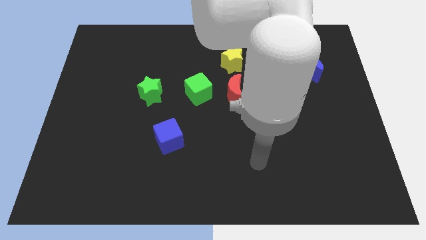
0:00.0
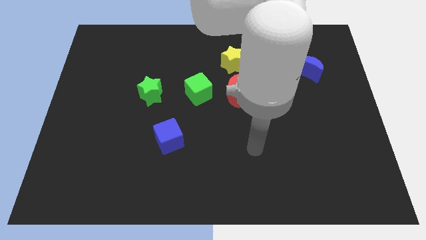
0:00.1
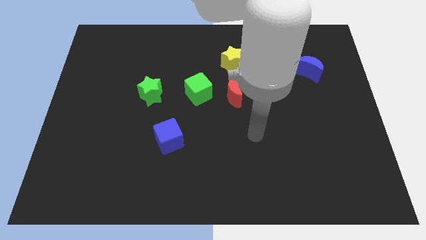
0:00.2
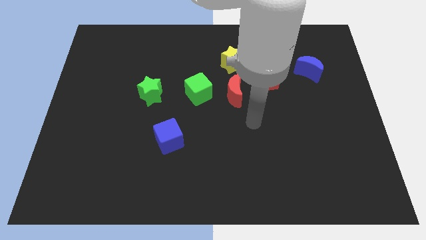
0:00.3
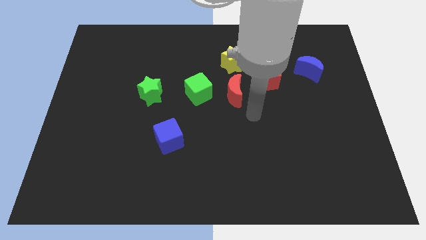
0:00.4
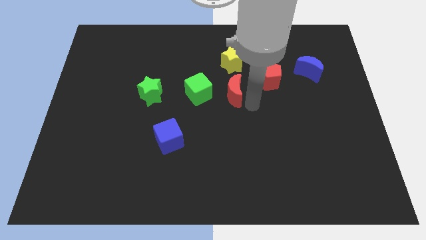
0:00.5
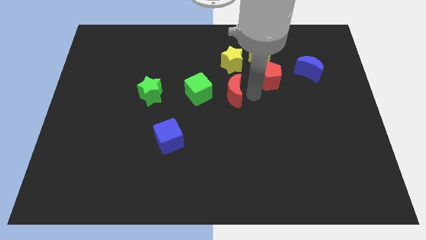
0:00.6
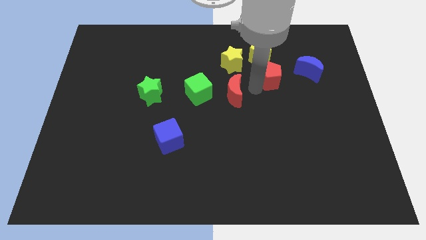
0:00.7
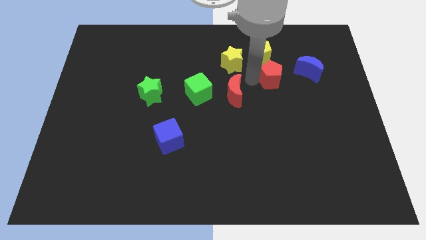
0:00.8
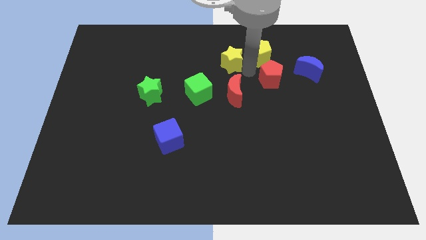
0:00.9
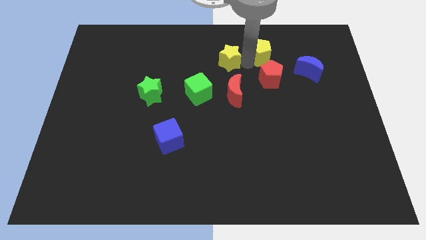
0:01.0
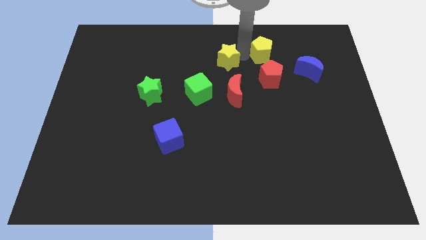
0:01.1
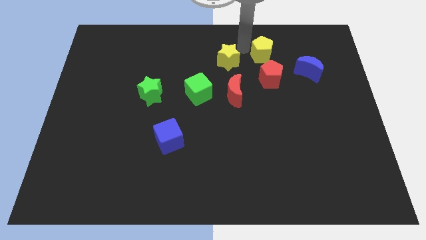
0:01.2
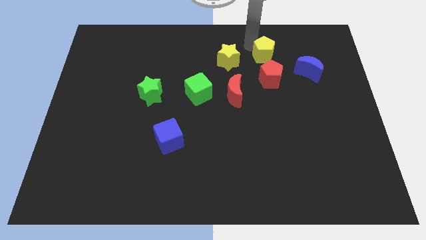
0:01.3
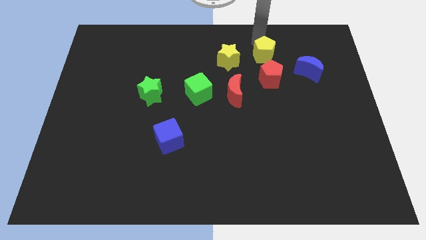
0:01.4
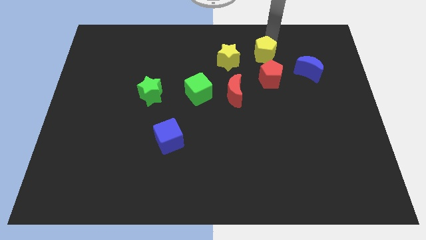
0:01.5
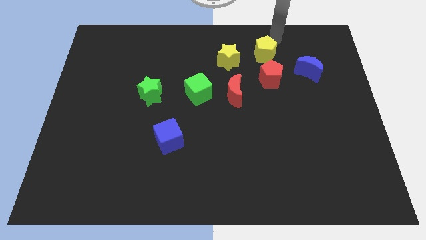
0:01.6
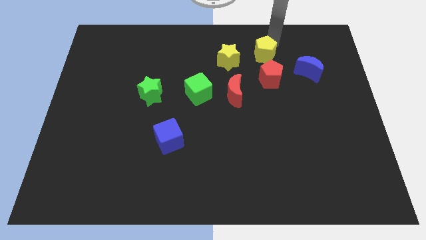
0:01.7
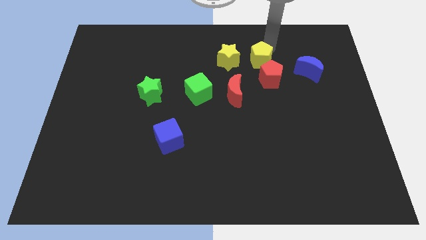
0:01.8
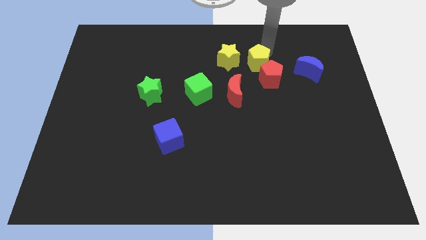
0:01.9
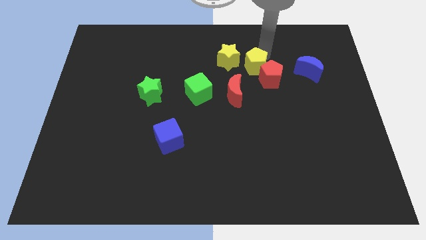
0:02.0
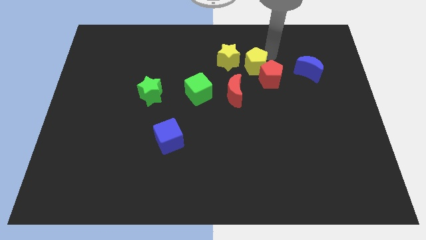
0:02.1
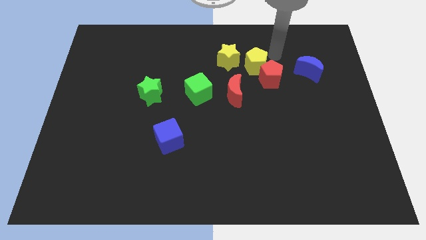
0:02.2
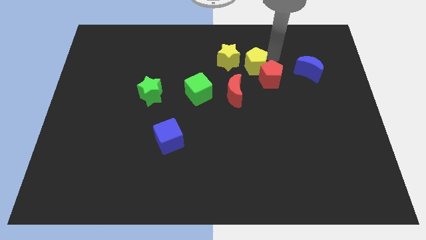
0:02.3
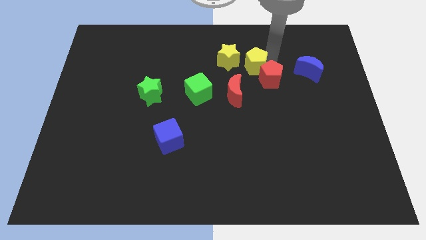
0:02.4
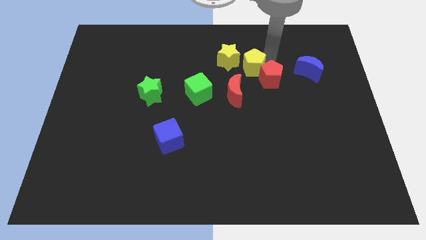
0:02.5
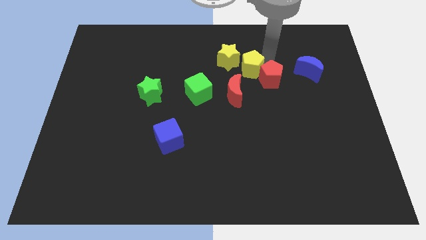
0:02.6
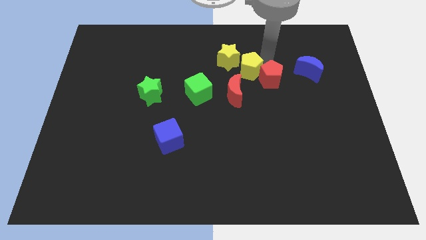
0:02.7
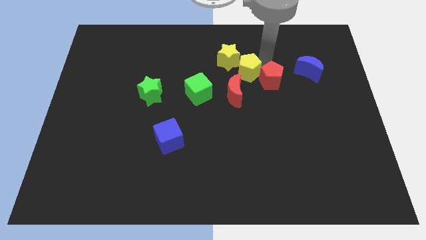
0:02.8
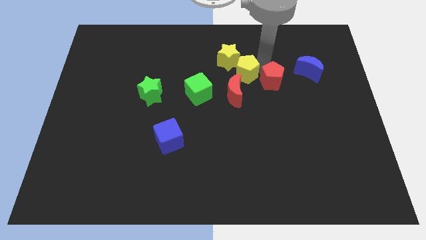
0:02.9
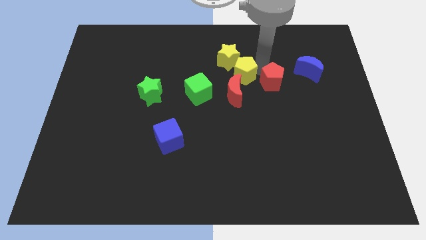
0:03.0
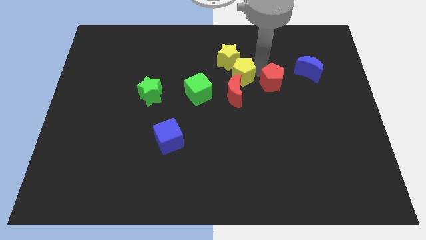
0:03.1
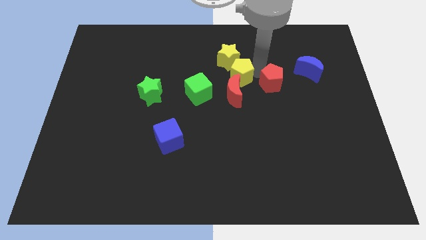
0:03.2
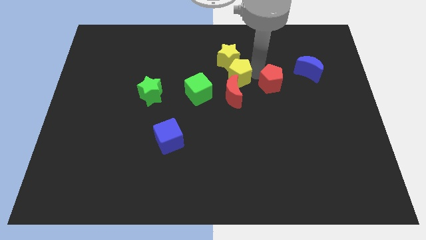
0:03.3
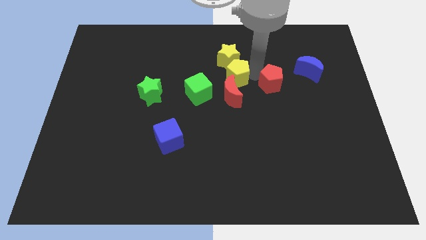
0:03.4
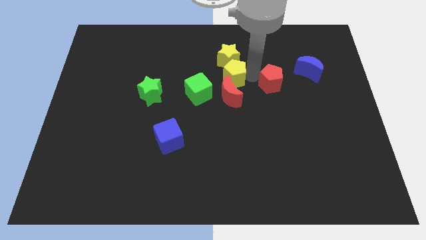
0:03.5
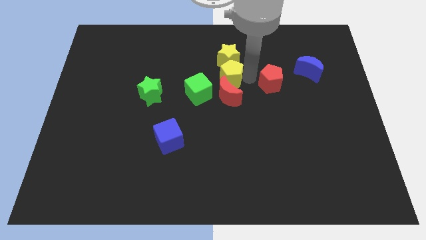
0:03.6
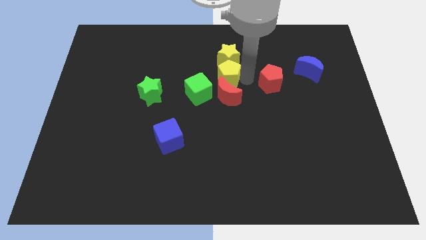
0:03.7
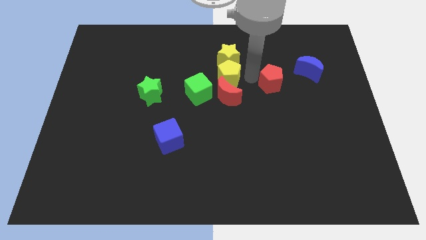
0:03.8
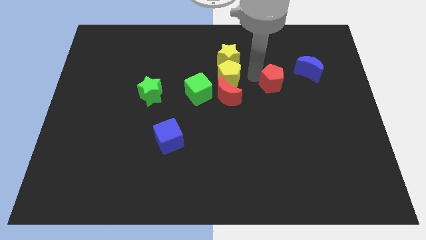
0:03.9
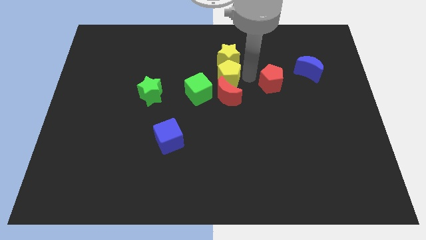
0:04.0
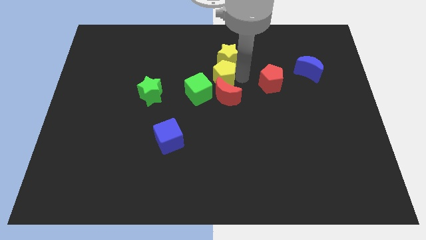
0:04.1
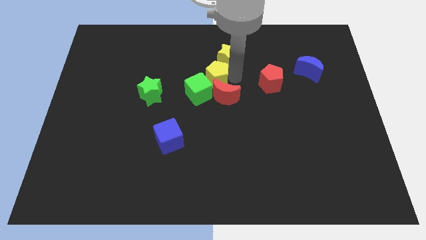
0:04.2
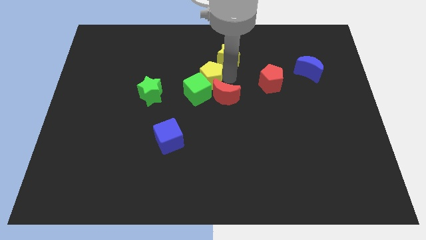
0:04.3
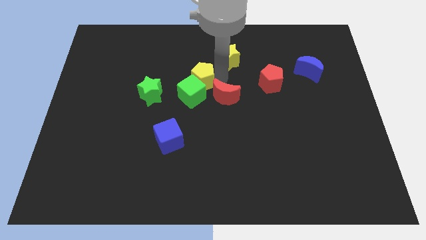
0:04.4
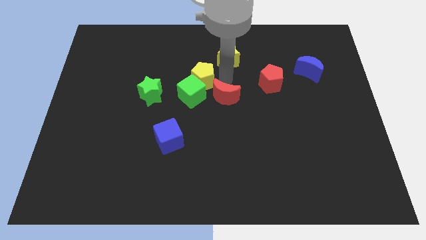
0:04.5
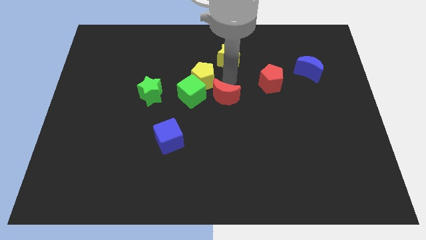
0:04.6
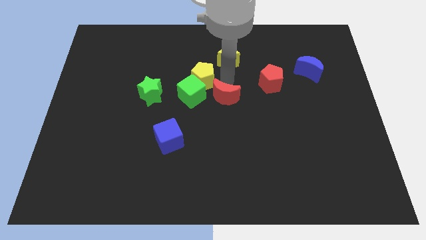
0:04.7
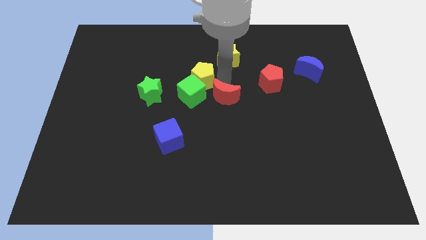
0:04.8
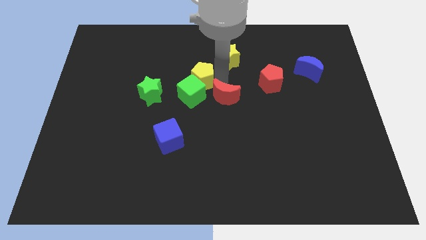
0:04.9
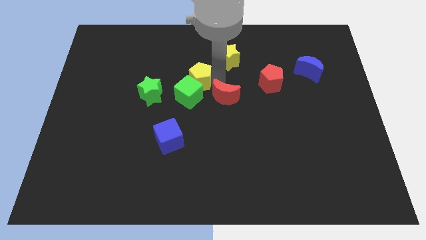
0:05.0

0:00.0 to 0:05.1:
move the yellow pentagon to the left side of the red moon

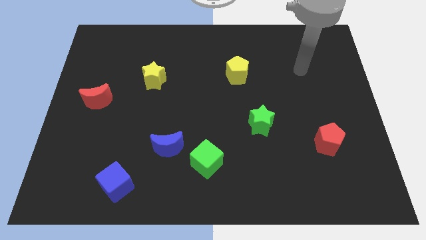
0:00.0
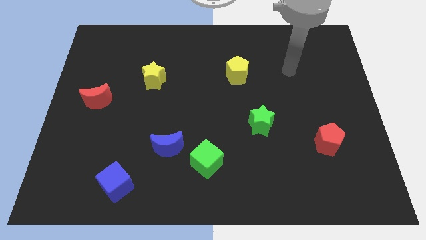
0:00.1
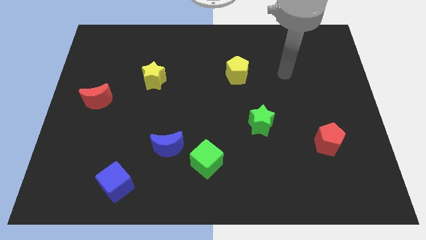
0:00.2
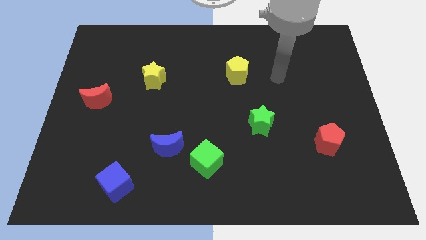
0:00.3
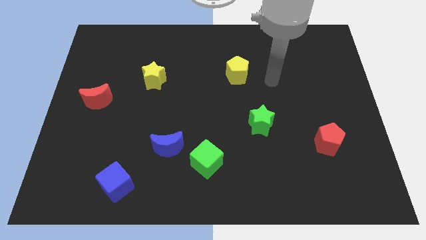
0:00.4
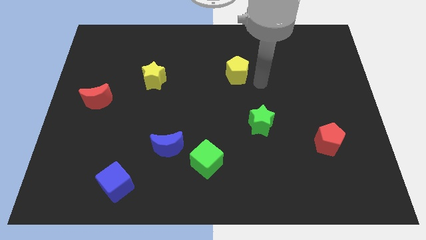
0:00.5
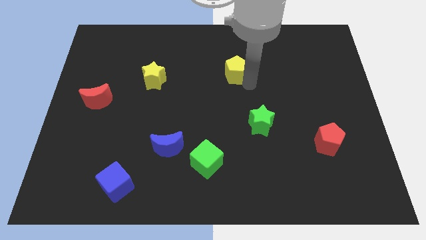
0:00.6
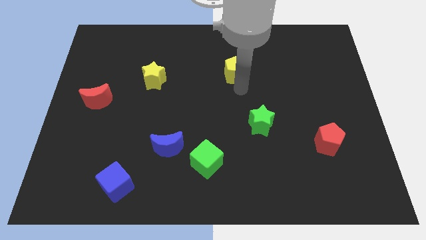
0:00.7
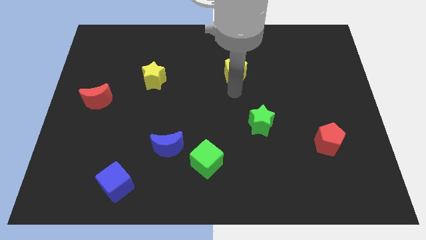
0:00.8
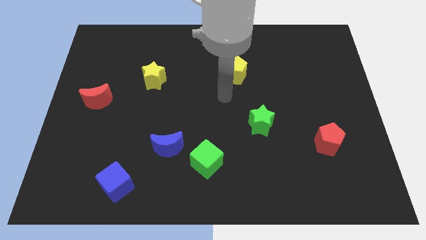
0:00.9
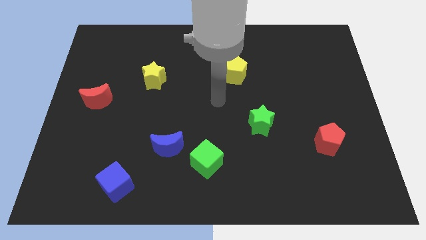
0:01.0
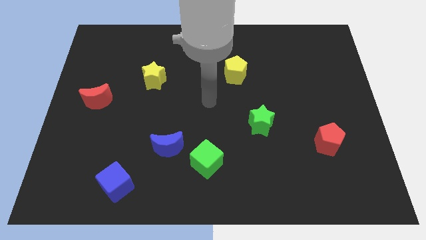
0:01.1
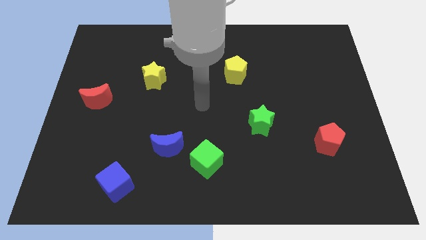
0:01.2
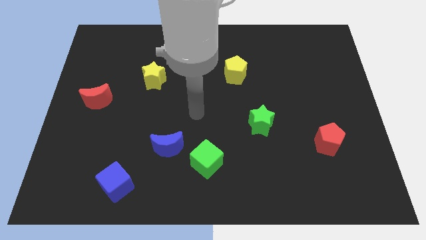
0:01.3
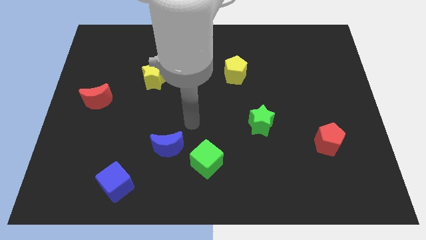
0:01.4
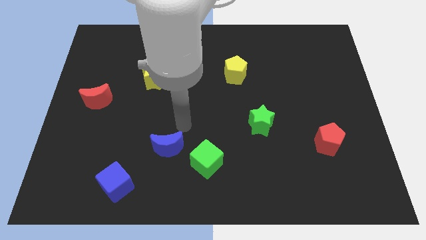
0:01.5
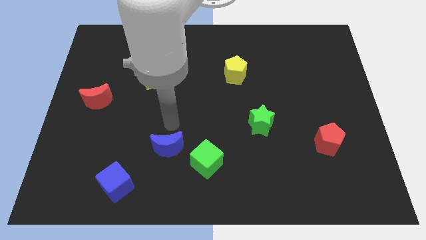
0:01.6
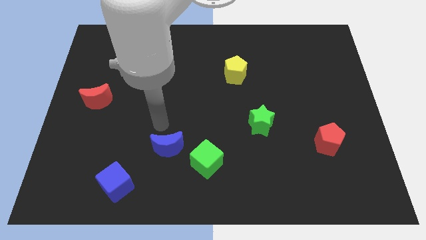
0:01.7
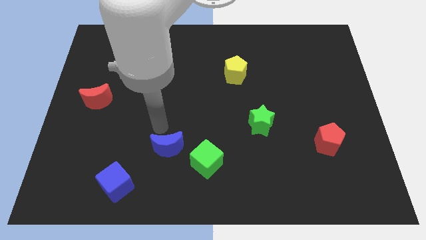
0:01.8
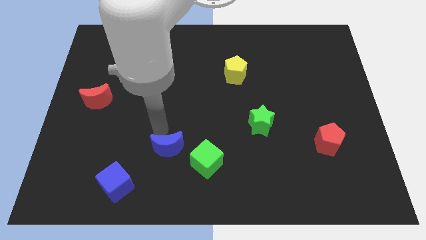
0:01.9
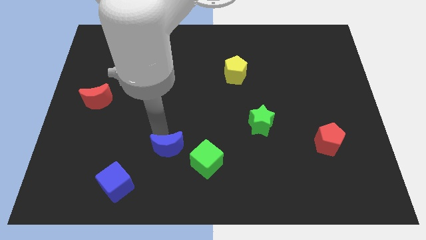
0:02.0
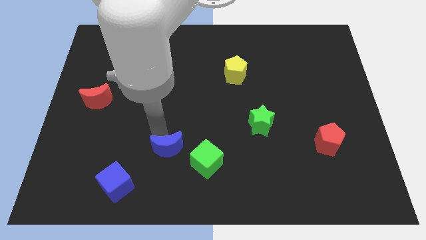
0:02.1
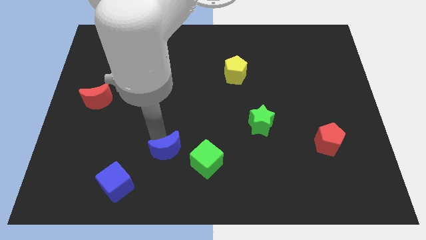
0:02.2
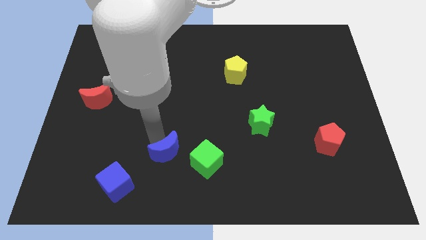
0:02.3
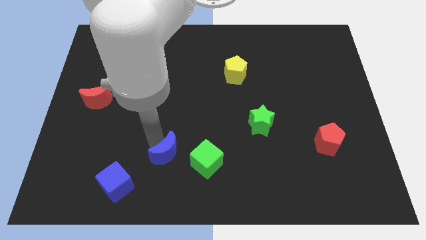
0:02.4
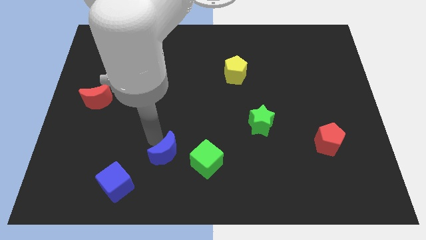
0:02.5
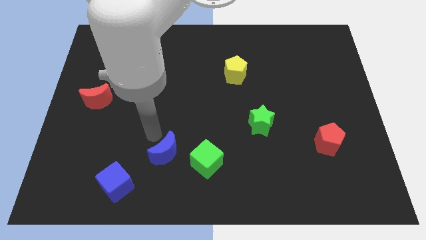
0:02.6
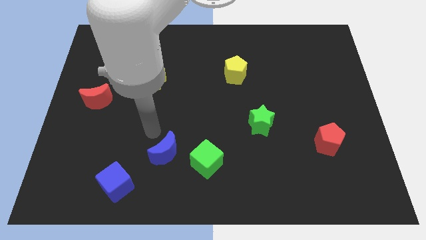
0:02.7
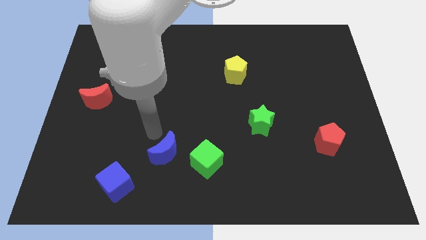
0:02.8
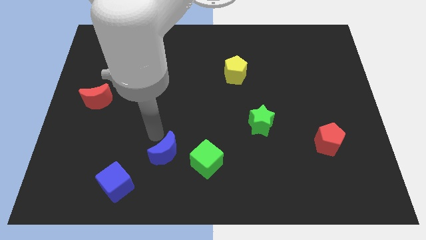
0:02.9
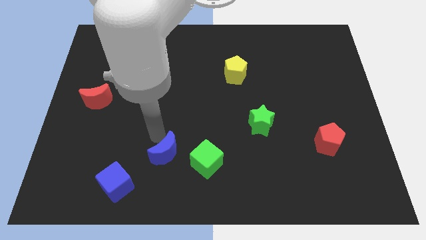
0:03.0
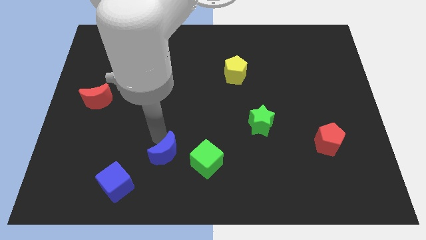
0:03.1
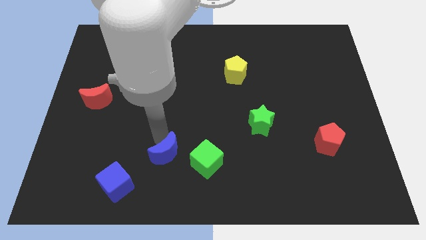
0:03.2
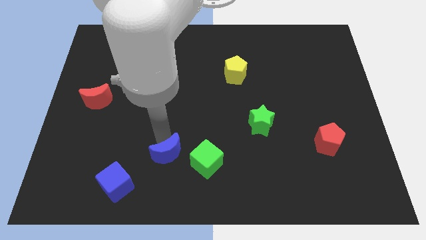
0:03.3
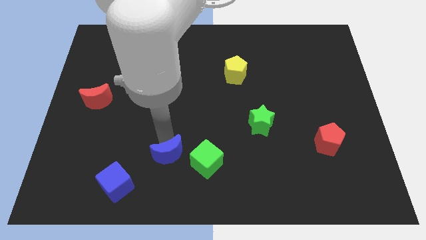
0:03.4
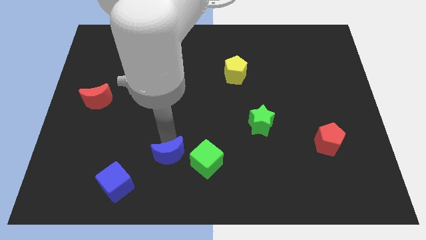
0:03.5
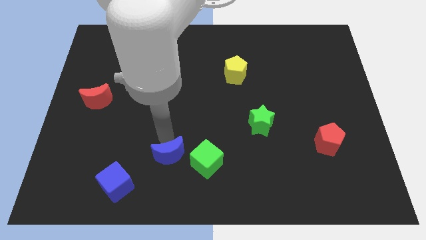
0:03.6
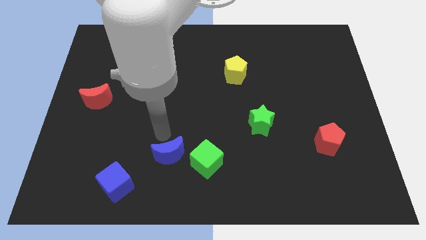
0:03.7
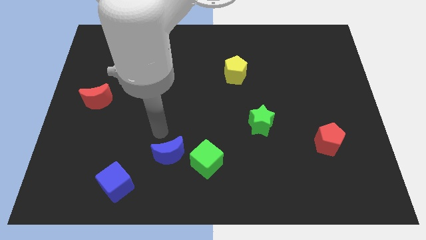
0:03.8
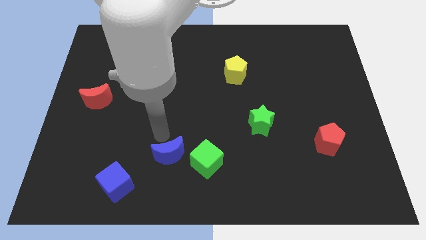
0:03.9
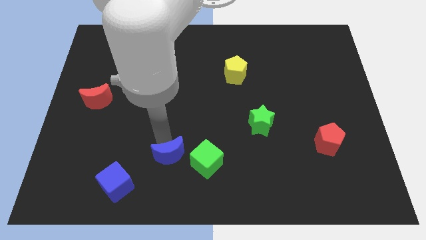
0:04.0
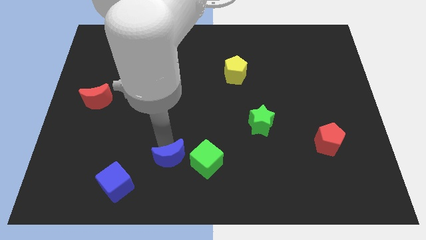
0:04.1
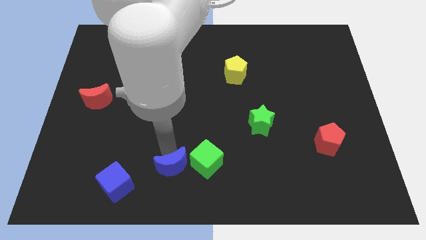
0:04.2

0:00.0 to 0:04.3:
move the blue moon to the bottom left of the green cube
